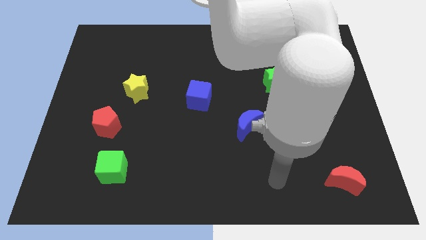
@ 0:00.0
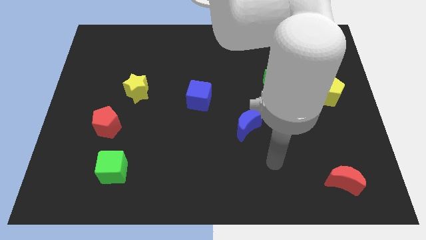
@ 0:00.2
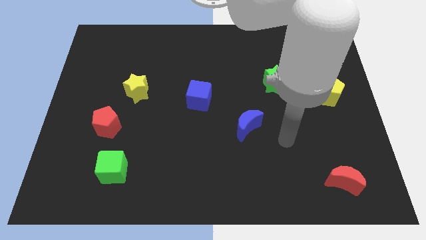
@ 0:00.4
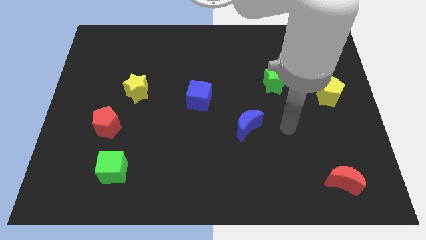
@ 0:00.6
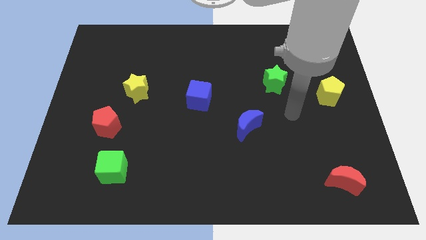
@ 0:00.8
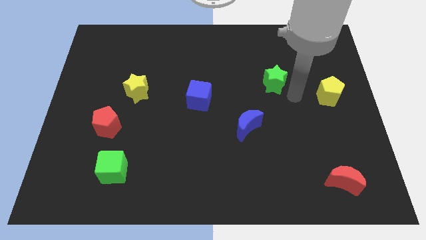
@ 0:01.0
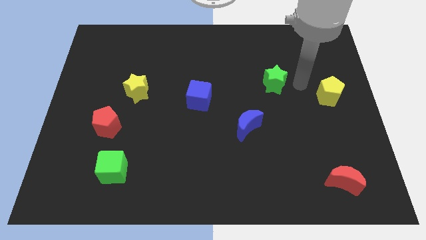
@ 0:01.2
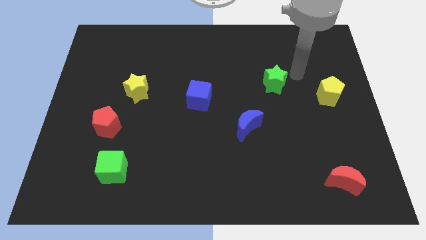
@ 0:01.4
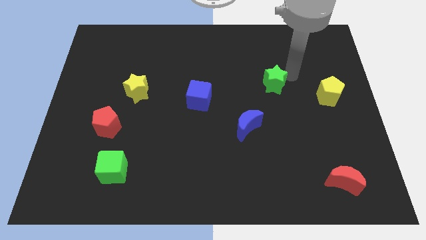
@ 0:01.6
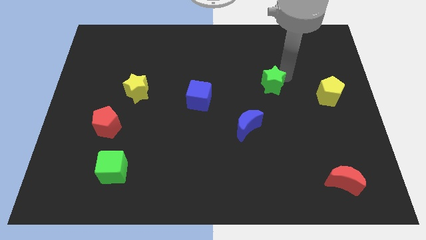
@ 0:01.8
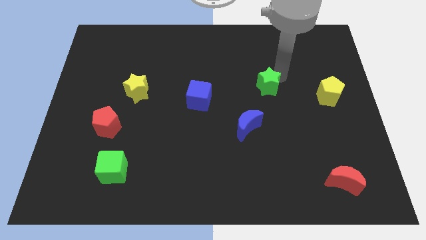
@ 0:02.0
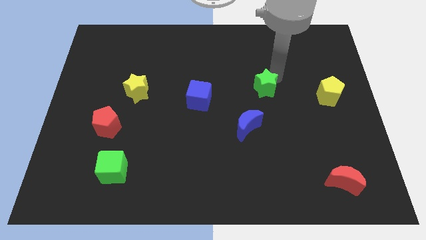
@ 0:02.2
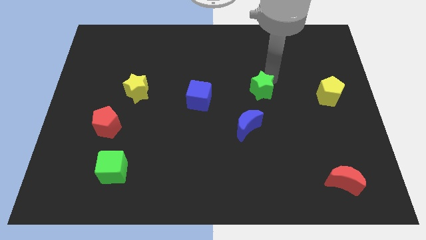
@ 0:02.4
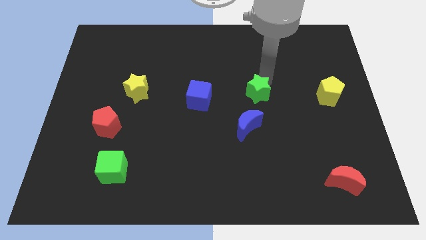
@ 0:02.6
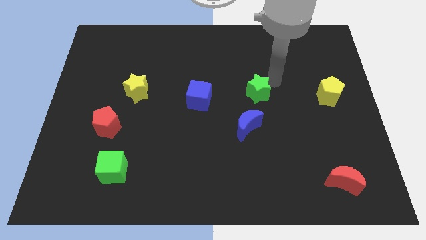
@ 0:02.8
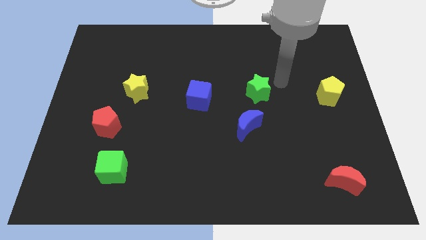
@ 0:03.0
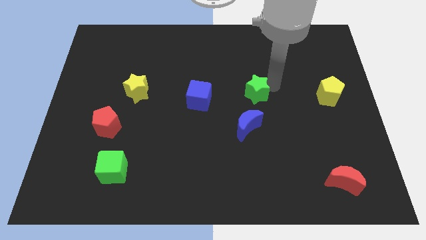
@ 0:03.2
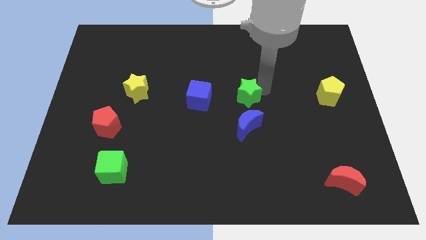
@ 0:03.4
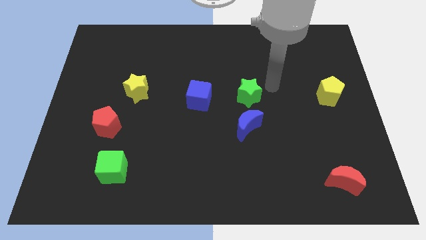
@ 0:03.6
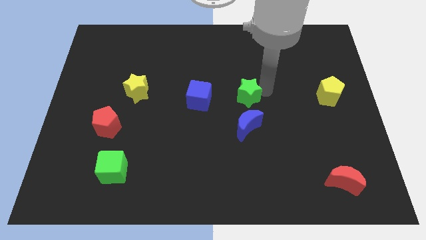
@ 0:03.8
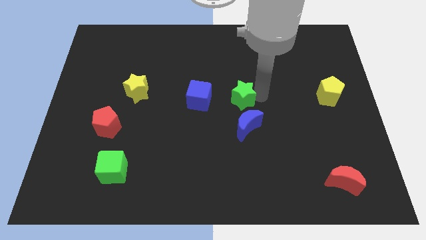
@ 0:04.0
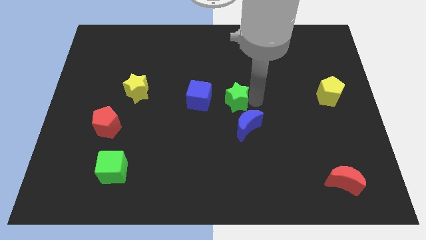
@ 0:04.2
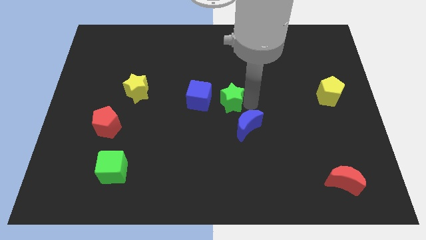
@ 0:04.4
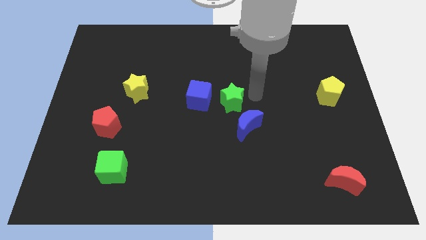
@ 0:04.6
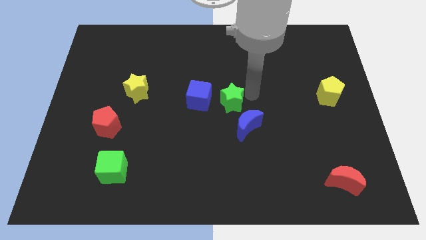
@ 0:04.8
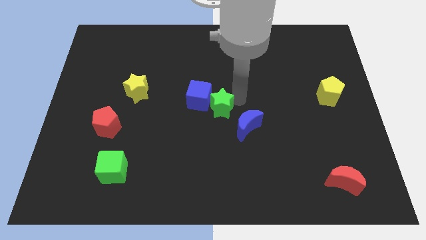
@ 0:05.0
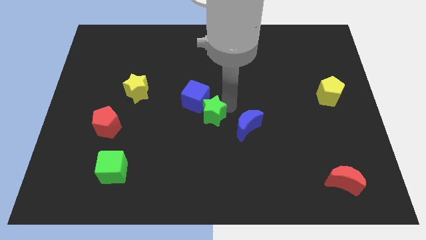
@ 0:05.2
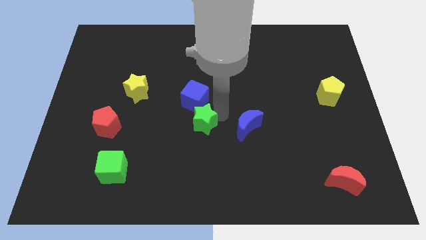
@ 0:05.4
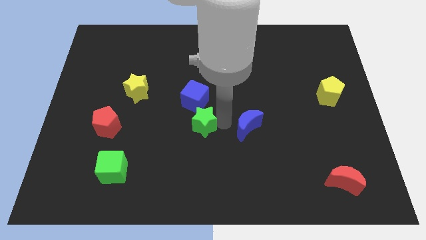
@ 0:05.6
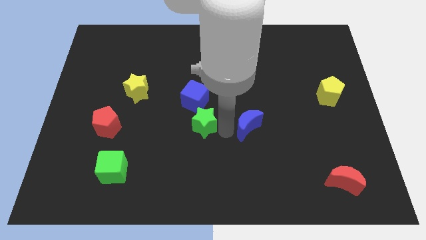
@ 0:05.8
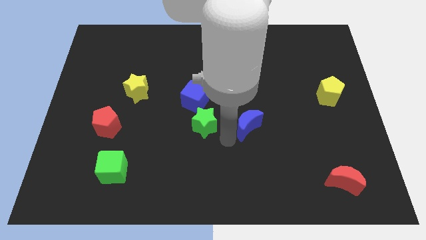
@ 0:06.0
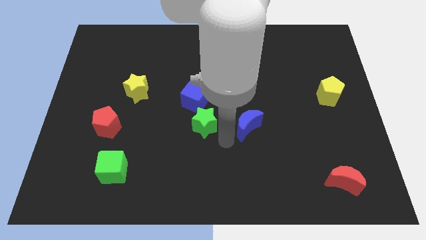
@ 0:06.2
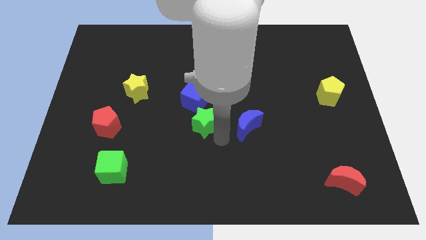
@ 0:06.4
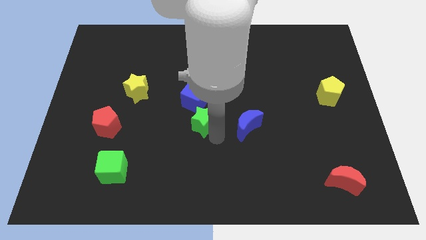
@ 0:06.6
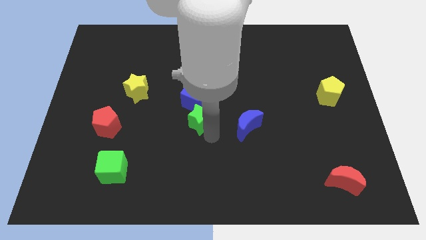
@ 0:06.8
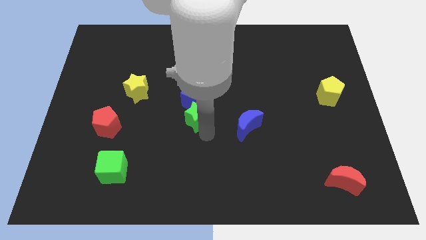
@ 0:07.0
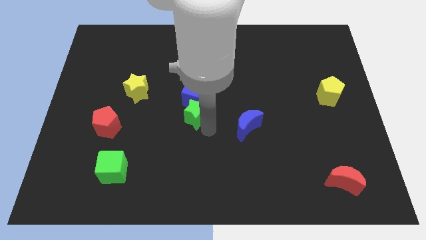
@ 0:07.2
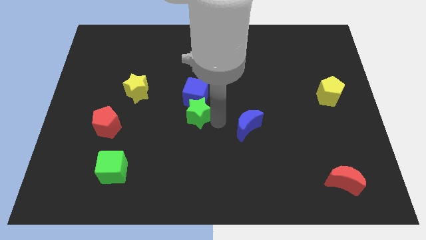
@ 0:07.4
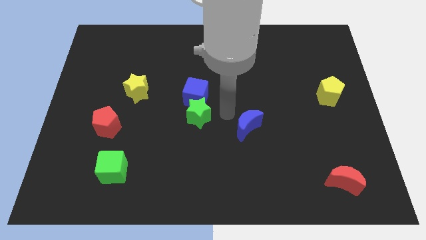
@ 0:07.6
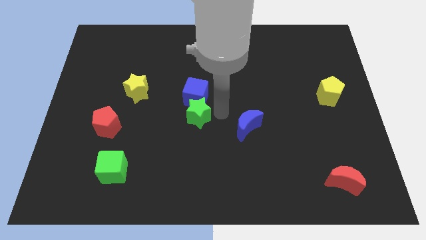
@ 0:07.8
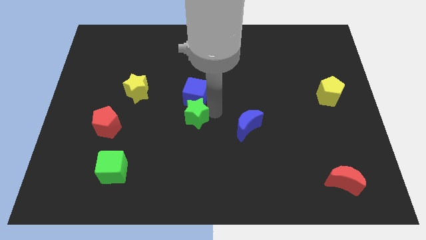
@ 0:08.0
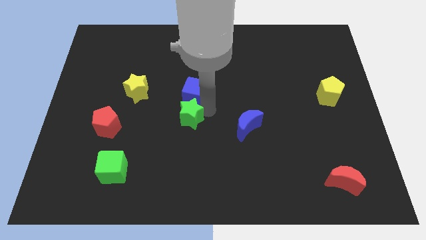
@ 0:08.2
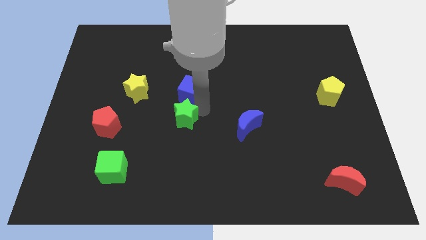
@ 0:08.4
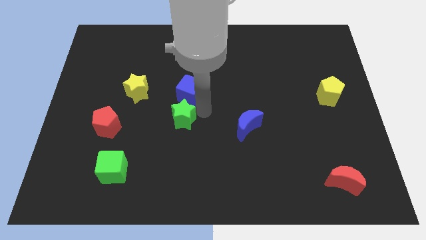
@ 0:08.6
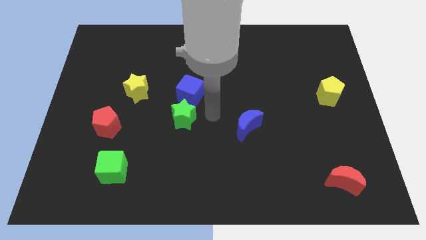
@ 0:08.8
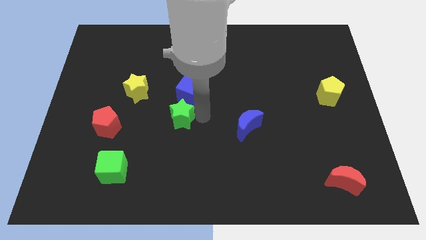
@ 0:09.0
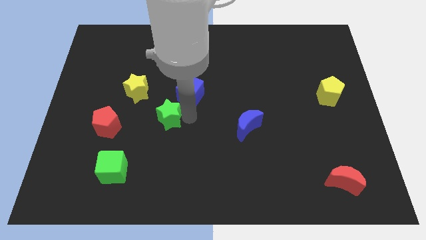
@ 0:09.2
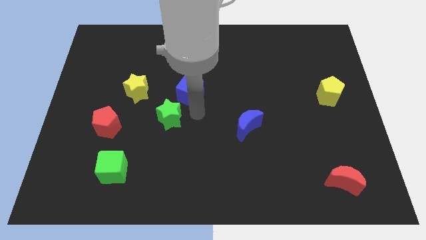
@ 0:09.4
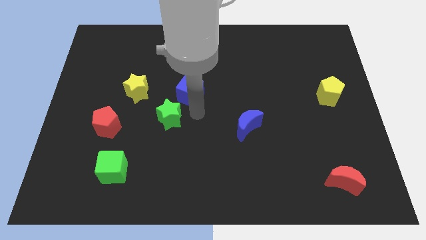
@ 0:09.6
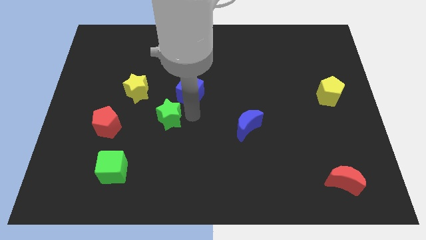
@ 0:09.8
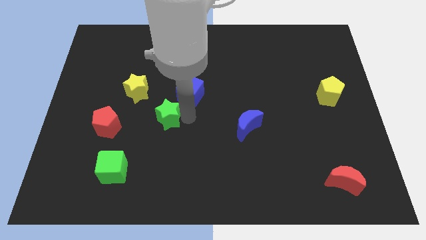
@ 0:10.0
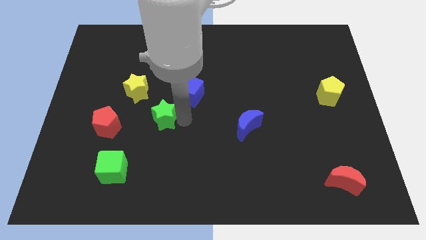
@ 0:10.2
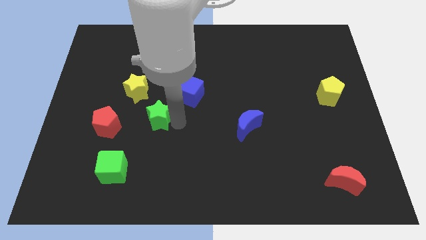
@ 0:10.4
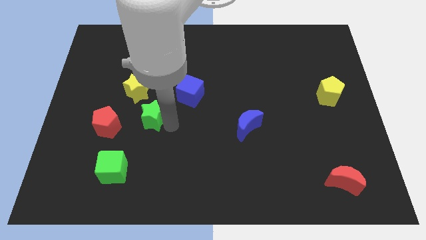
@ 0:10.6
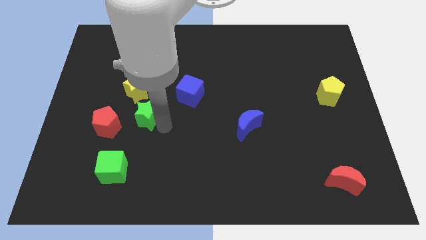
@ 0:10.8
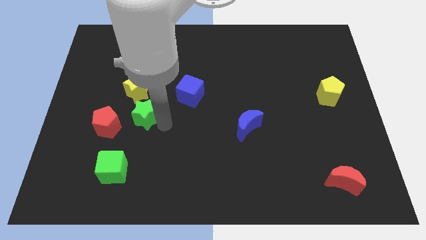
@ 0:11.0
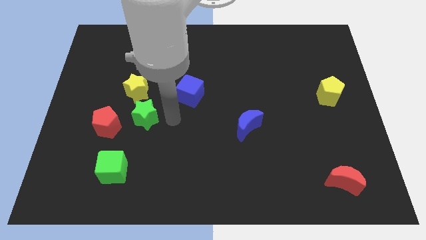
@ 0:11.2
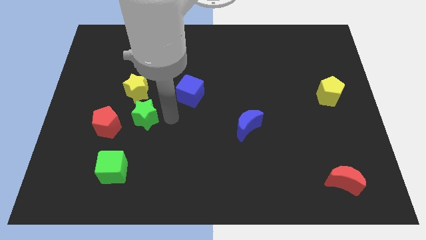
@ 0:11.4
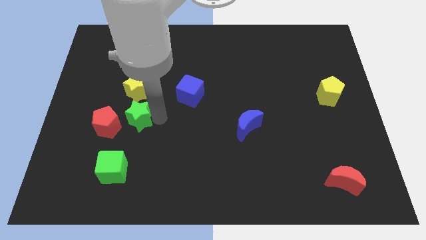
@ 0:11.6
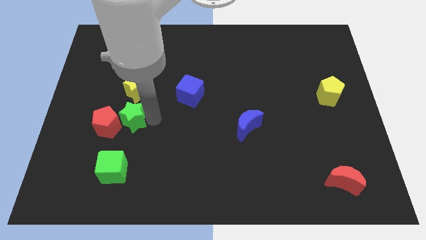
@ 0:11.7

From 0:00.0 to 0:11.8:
slide the green star towards the red pentagon

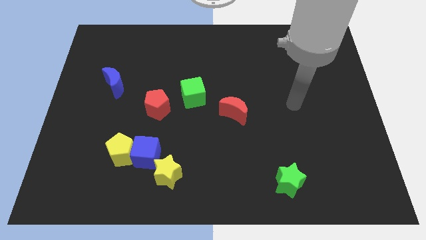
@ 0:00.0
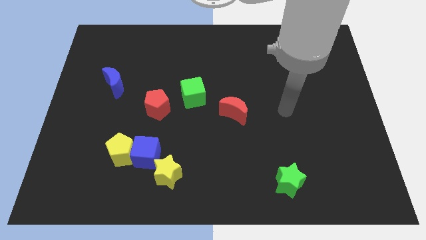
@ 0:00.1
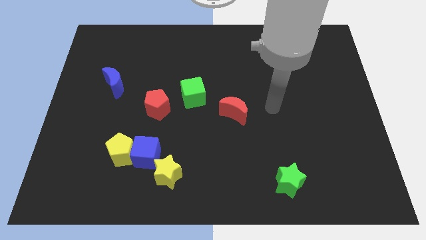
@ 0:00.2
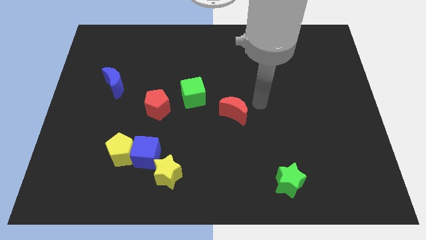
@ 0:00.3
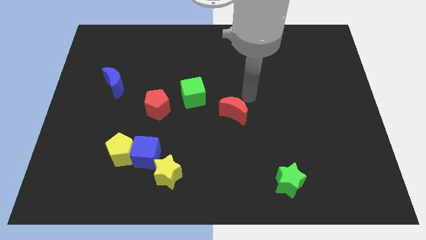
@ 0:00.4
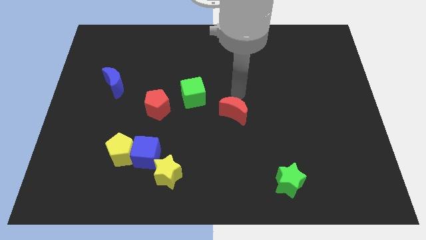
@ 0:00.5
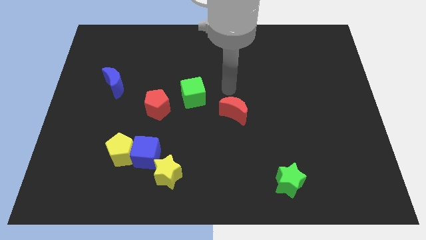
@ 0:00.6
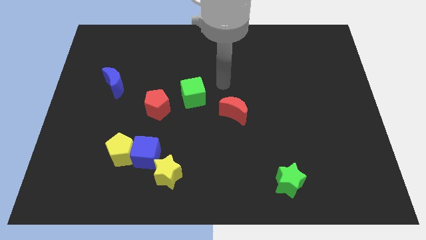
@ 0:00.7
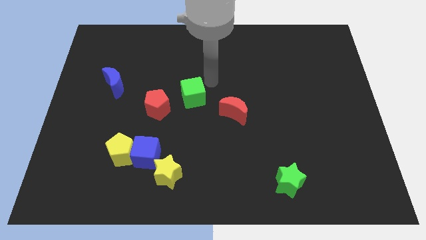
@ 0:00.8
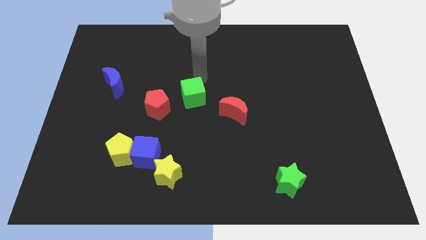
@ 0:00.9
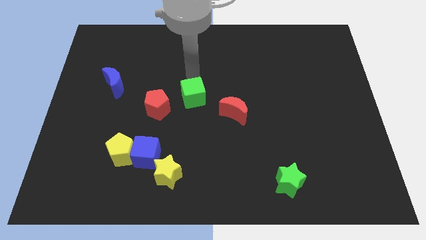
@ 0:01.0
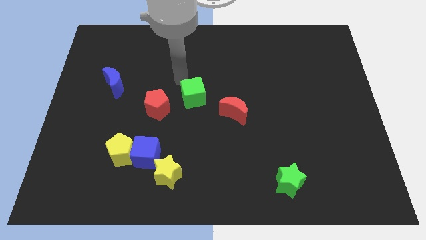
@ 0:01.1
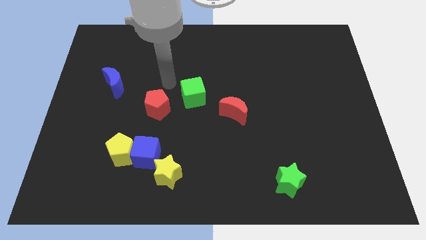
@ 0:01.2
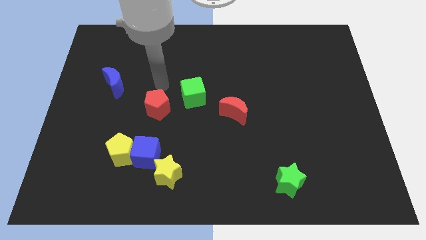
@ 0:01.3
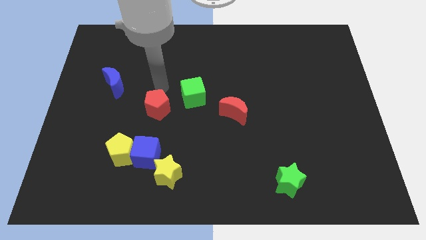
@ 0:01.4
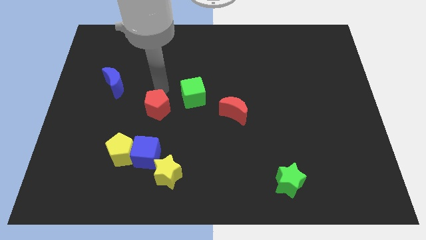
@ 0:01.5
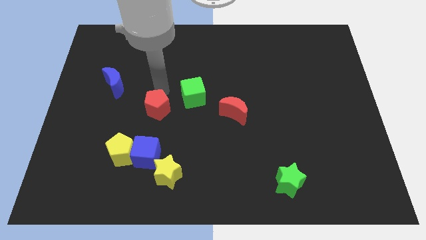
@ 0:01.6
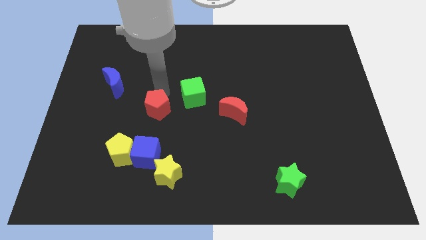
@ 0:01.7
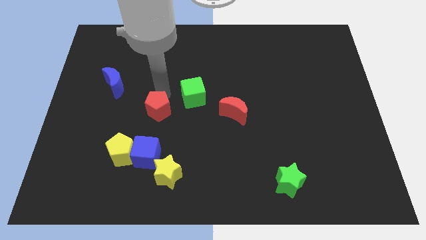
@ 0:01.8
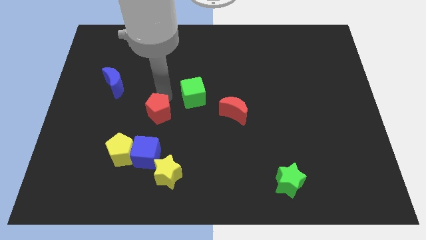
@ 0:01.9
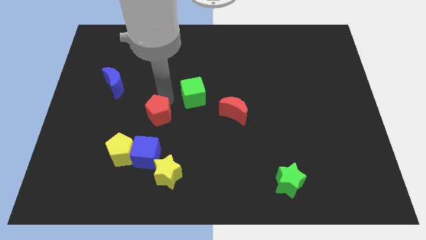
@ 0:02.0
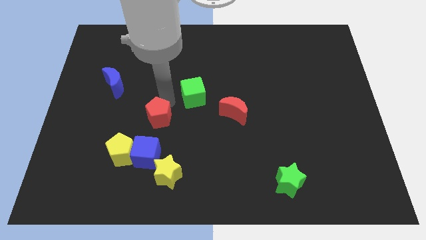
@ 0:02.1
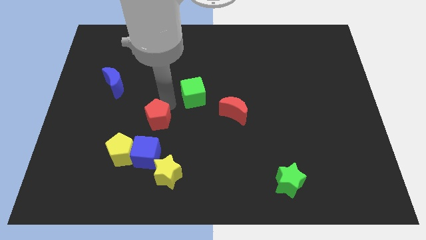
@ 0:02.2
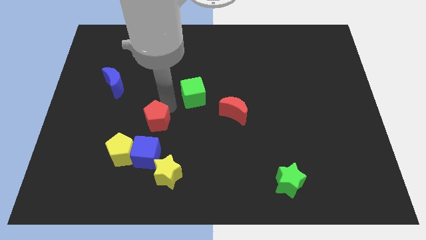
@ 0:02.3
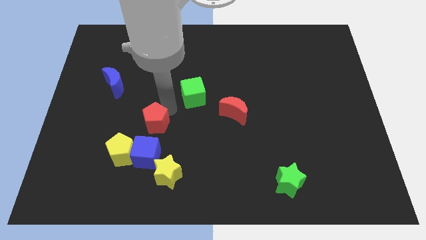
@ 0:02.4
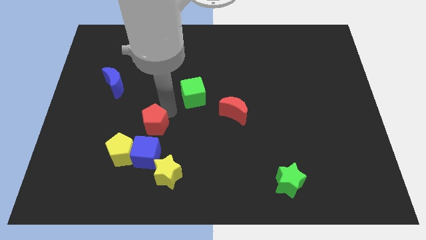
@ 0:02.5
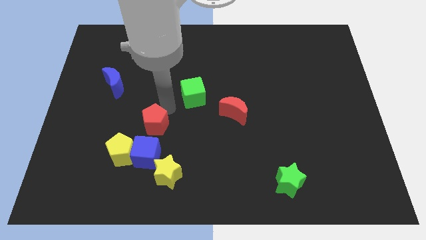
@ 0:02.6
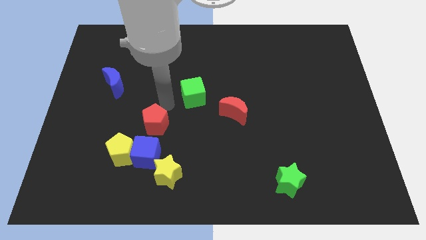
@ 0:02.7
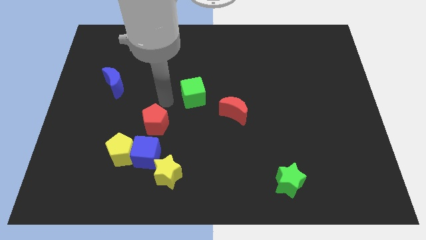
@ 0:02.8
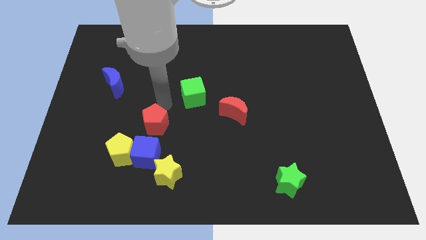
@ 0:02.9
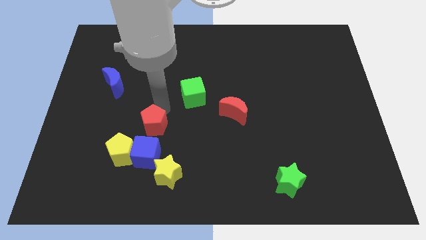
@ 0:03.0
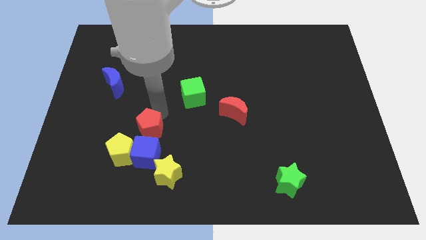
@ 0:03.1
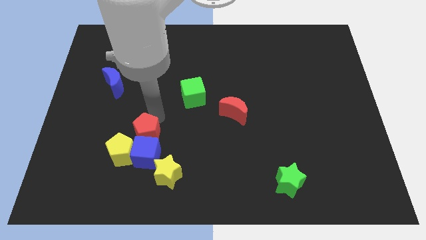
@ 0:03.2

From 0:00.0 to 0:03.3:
push the red pentagon towards the blue cube
